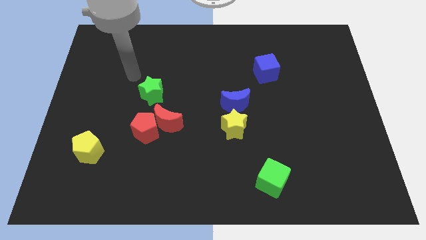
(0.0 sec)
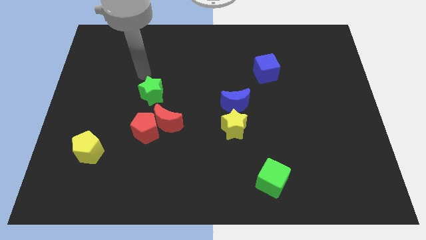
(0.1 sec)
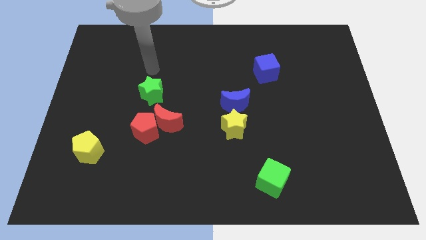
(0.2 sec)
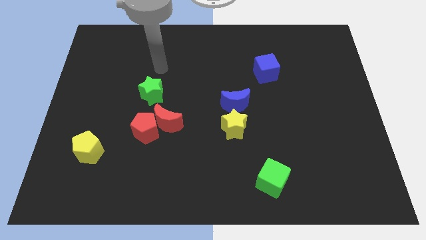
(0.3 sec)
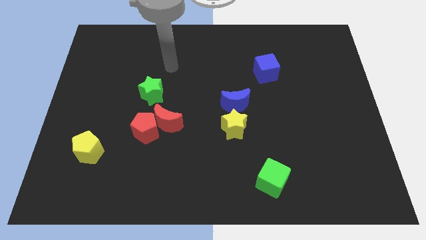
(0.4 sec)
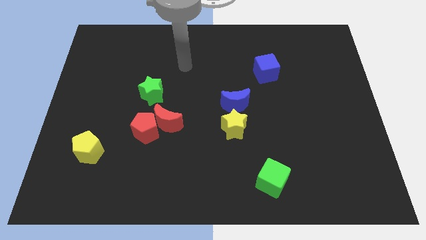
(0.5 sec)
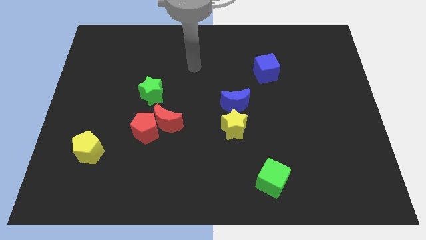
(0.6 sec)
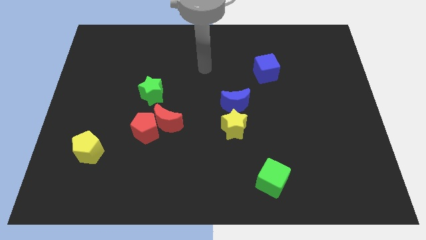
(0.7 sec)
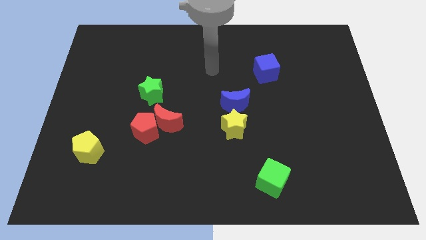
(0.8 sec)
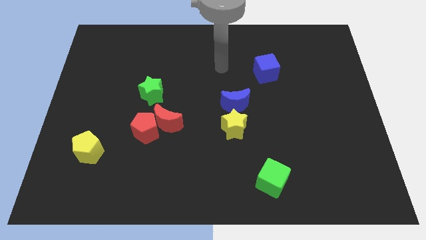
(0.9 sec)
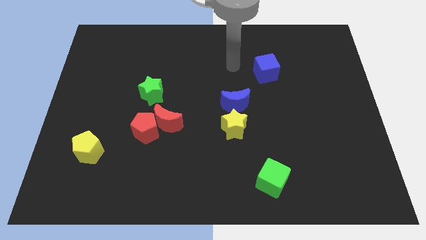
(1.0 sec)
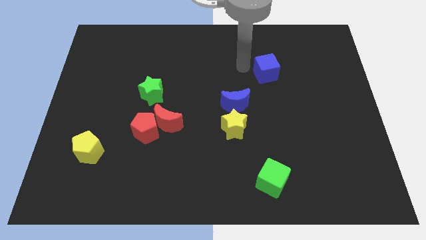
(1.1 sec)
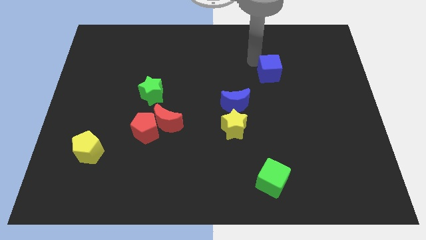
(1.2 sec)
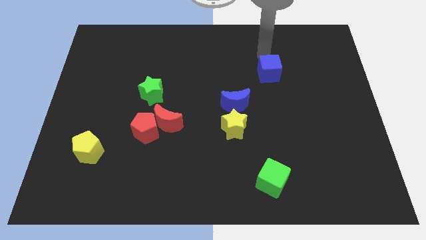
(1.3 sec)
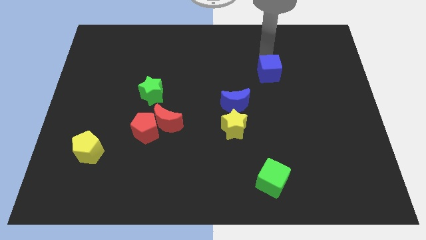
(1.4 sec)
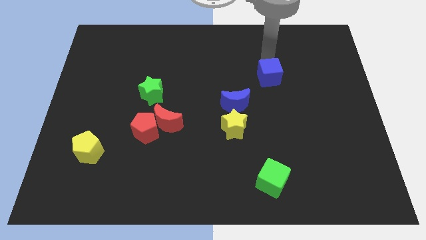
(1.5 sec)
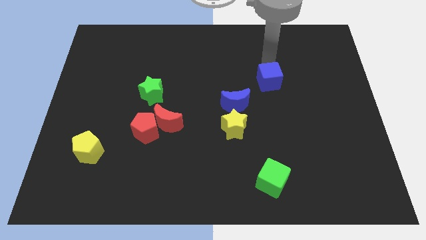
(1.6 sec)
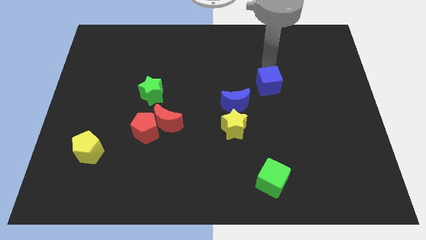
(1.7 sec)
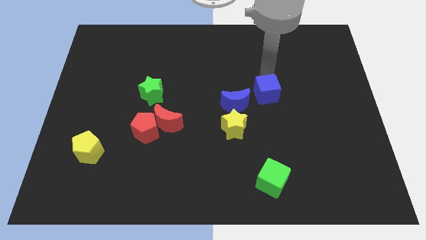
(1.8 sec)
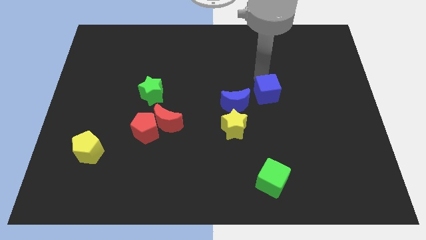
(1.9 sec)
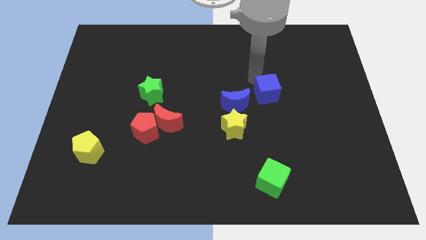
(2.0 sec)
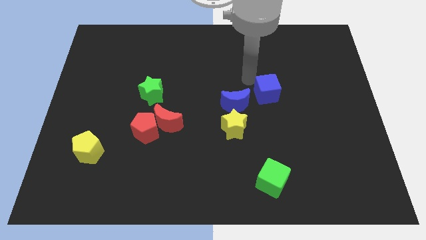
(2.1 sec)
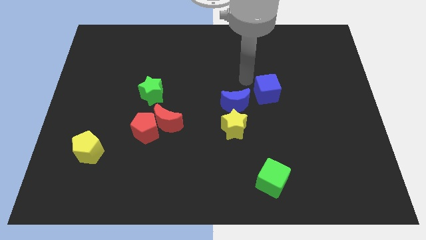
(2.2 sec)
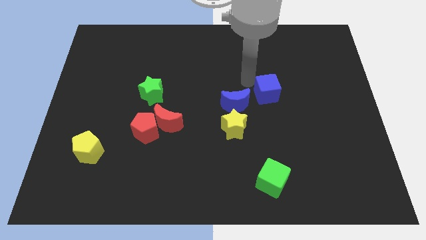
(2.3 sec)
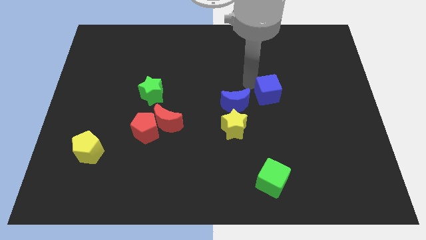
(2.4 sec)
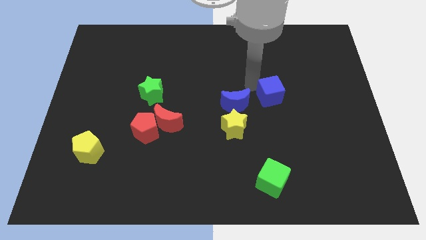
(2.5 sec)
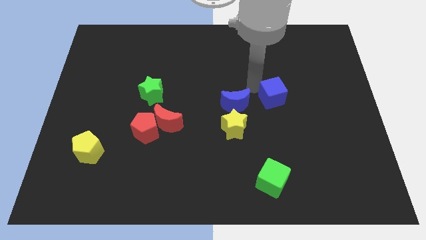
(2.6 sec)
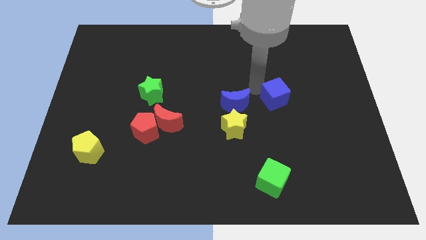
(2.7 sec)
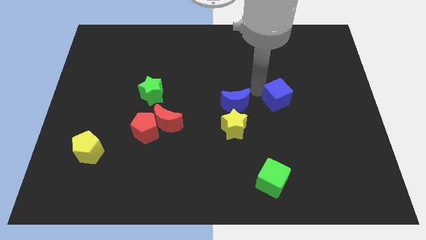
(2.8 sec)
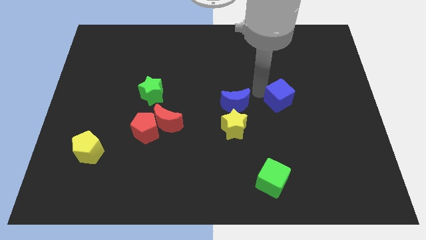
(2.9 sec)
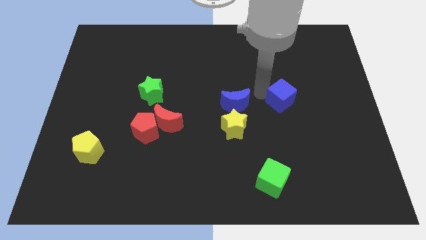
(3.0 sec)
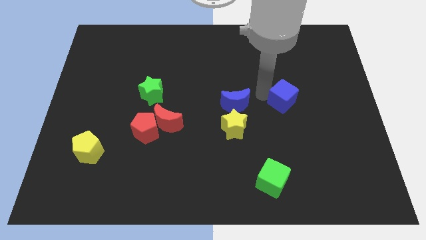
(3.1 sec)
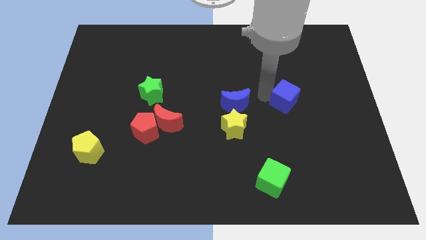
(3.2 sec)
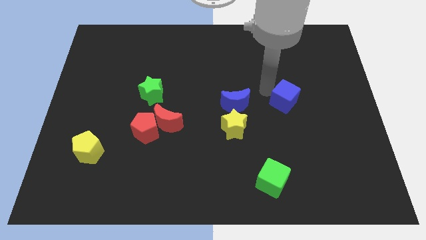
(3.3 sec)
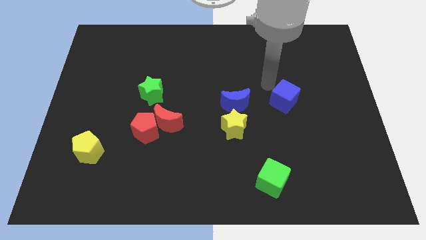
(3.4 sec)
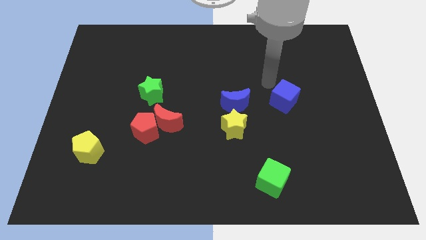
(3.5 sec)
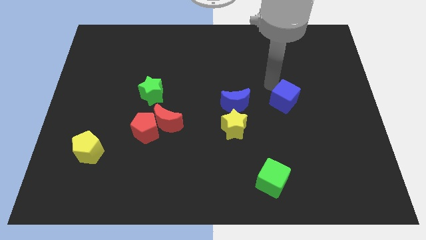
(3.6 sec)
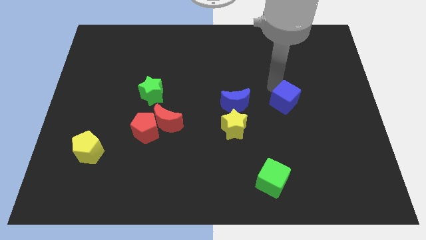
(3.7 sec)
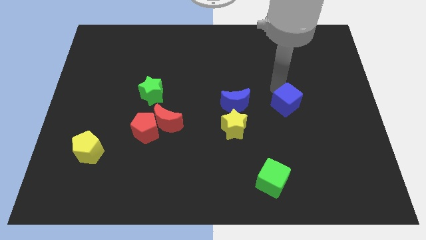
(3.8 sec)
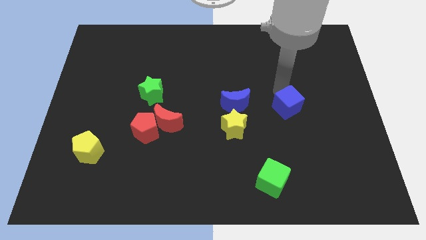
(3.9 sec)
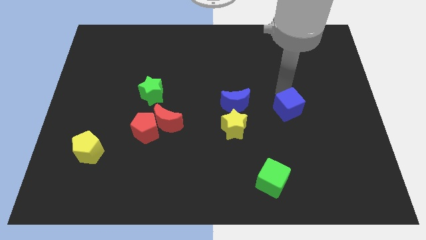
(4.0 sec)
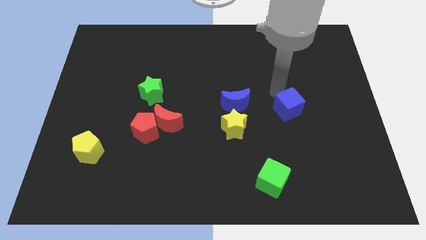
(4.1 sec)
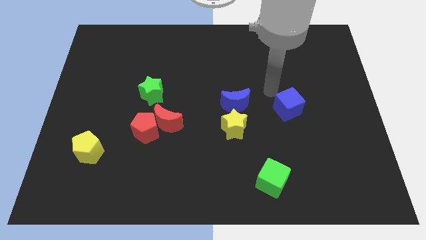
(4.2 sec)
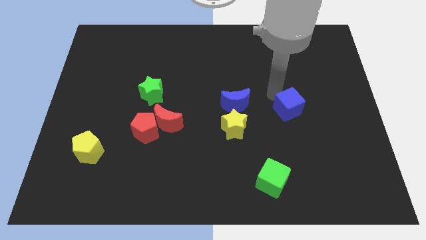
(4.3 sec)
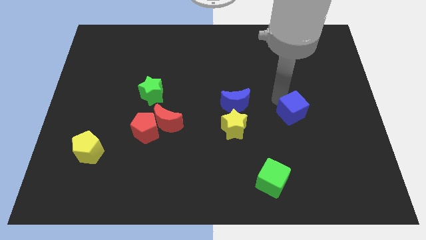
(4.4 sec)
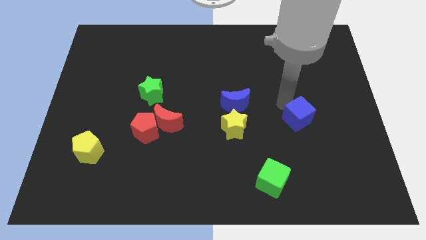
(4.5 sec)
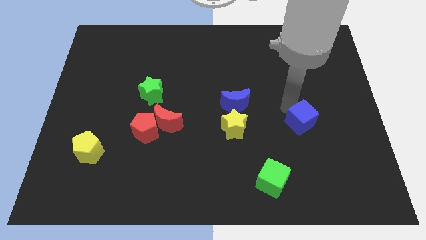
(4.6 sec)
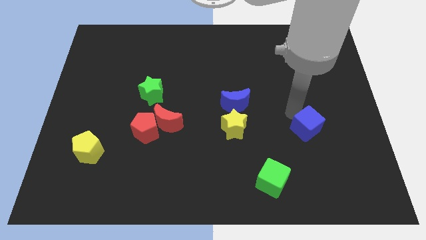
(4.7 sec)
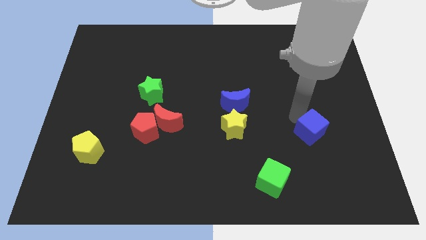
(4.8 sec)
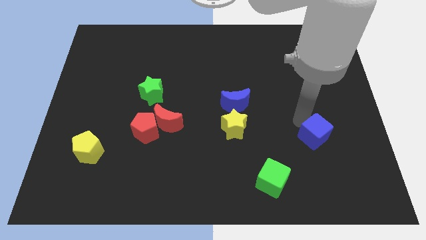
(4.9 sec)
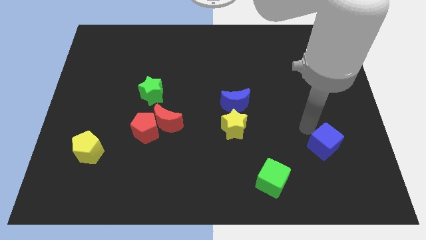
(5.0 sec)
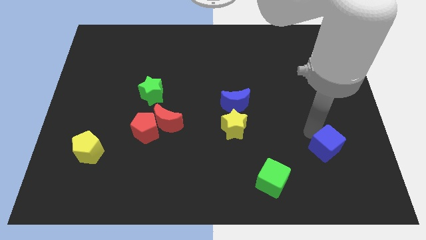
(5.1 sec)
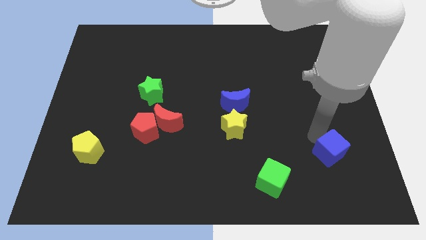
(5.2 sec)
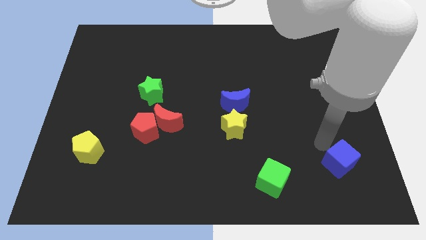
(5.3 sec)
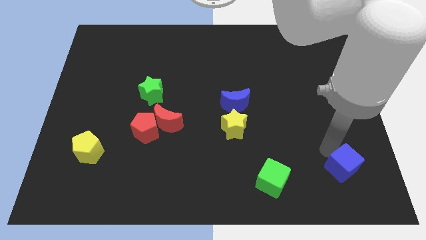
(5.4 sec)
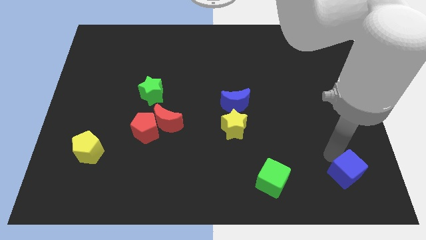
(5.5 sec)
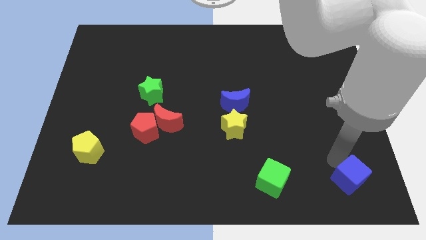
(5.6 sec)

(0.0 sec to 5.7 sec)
put the blue cube to the bottom right of the board

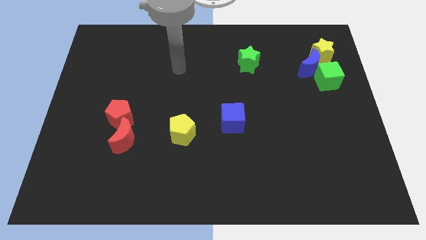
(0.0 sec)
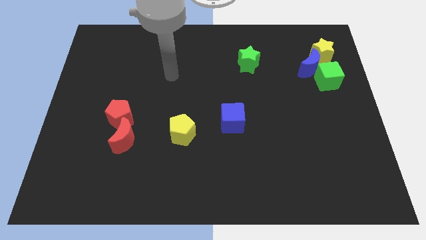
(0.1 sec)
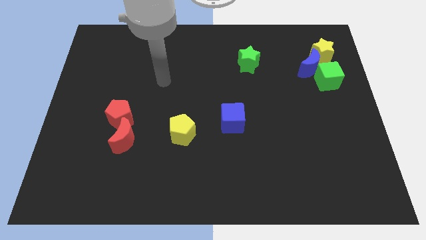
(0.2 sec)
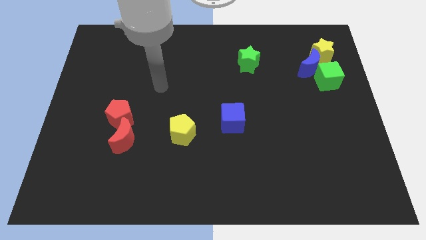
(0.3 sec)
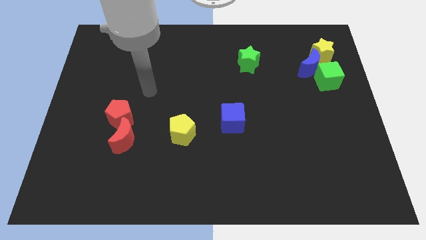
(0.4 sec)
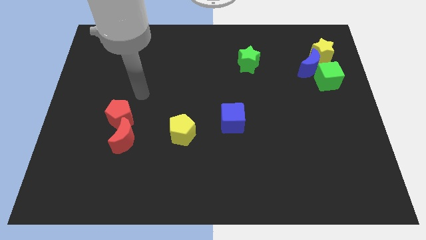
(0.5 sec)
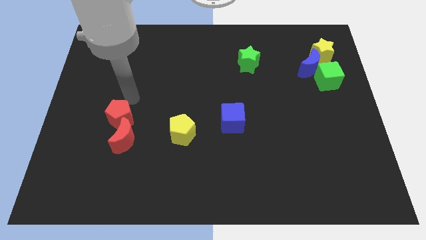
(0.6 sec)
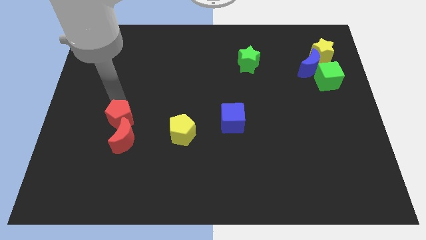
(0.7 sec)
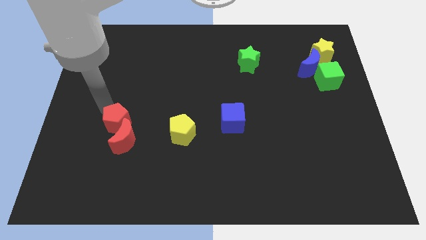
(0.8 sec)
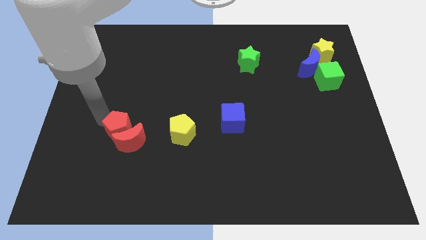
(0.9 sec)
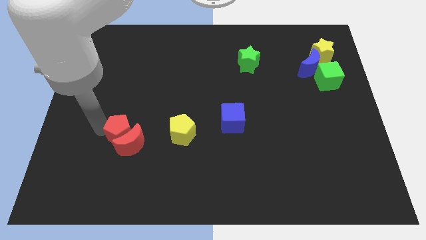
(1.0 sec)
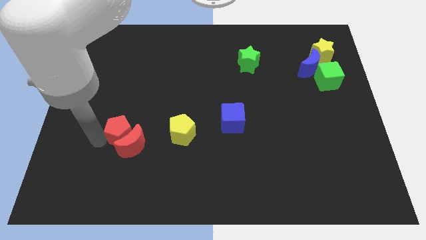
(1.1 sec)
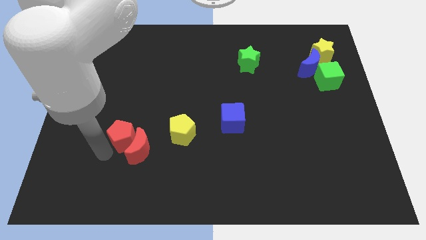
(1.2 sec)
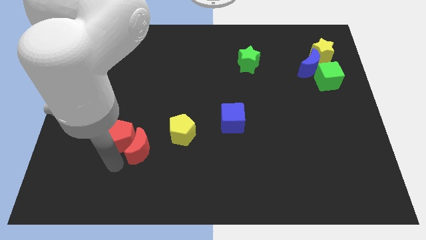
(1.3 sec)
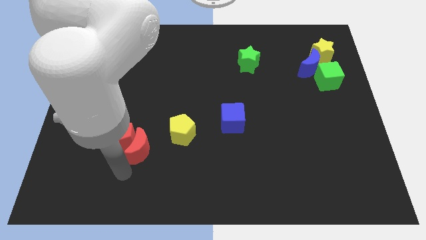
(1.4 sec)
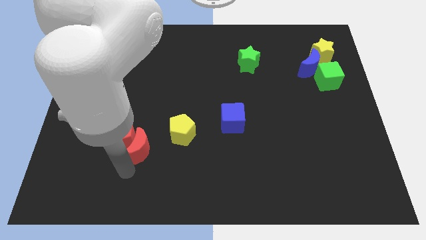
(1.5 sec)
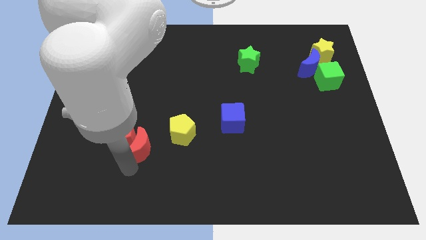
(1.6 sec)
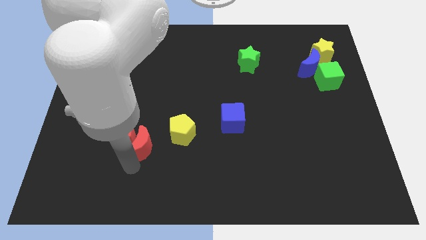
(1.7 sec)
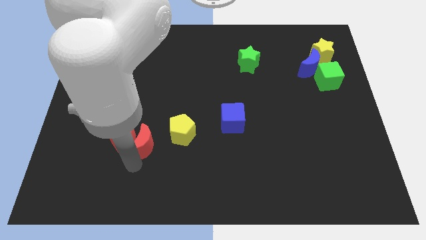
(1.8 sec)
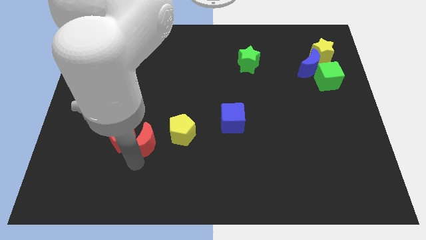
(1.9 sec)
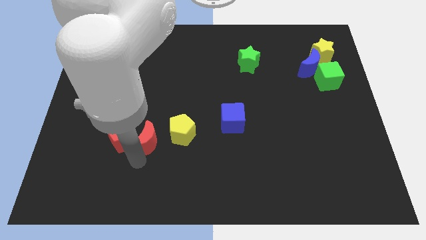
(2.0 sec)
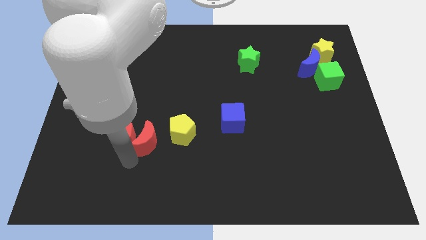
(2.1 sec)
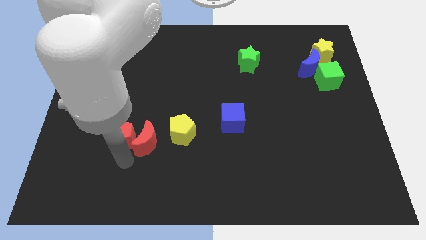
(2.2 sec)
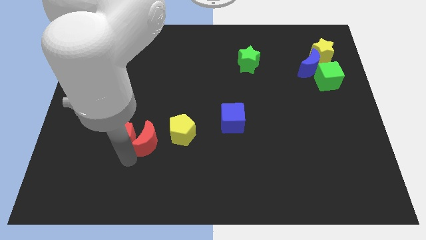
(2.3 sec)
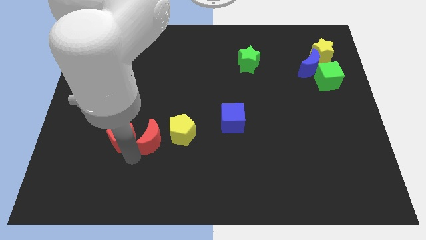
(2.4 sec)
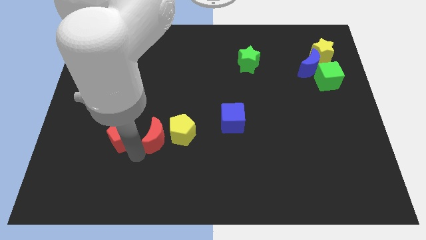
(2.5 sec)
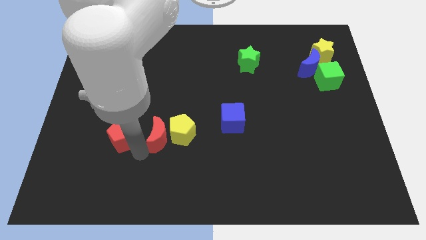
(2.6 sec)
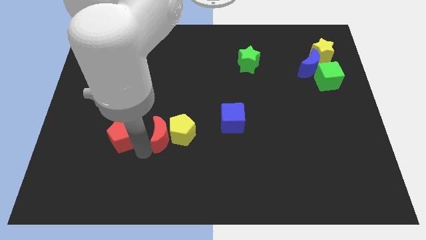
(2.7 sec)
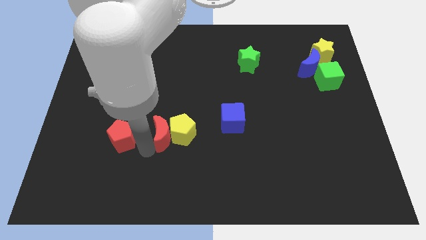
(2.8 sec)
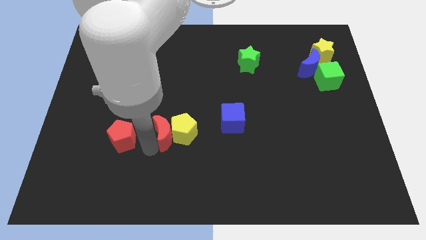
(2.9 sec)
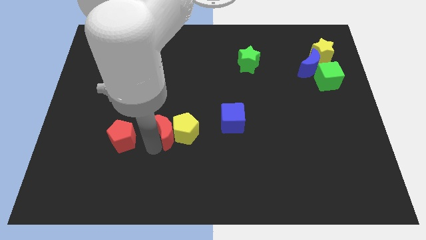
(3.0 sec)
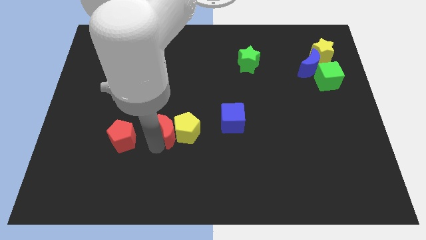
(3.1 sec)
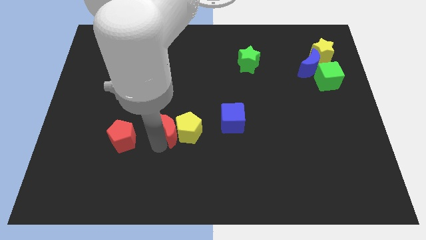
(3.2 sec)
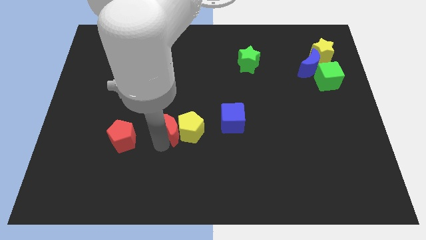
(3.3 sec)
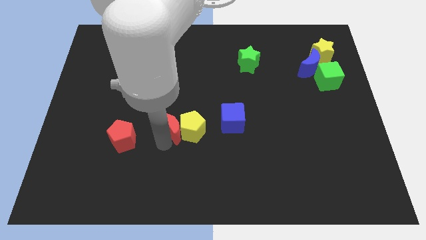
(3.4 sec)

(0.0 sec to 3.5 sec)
push the red moon to the center
